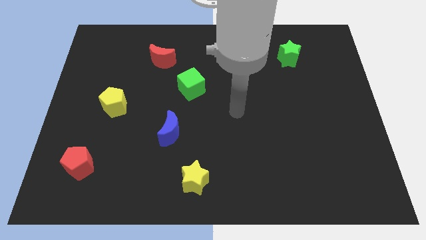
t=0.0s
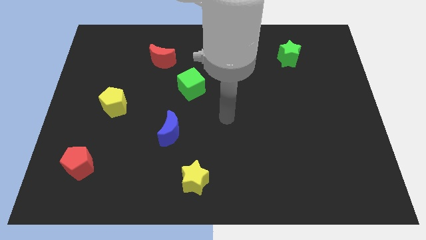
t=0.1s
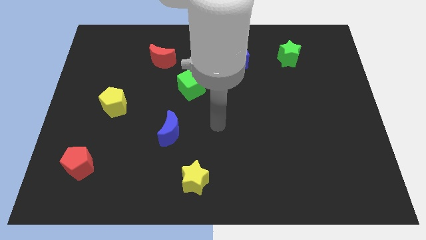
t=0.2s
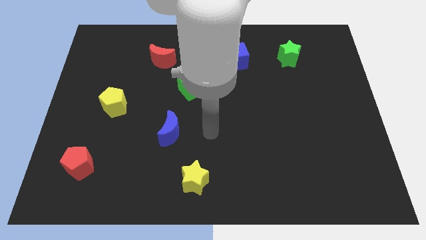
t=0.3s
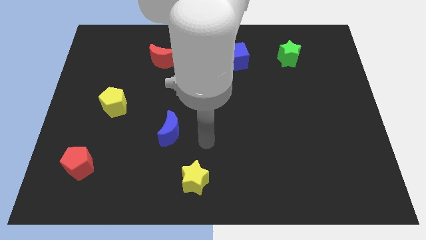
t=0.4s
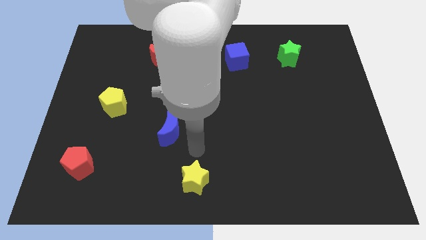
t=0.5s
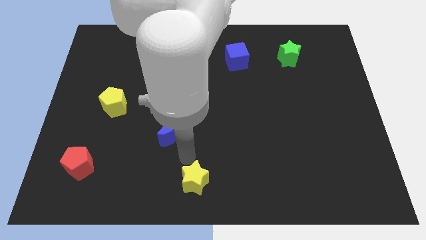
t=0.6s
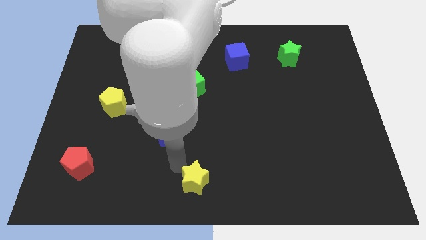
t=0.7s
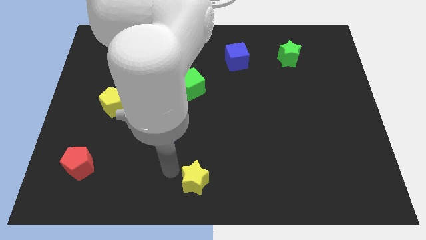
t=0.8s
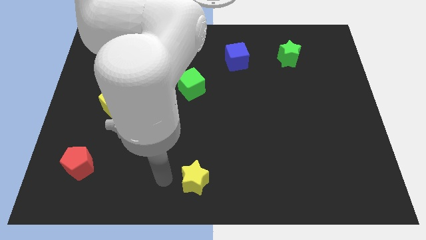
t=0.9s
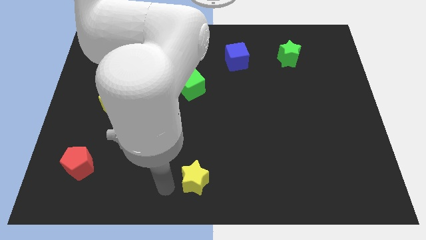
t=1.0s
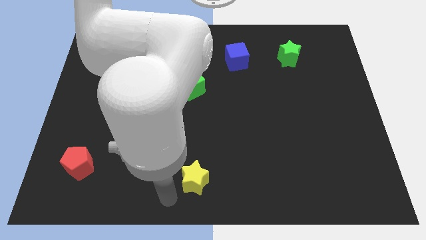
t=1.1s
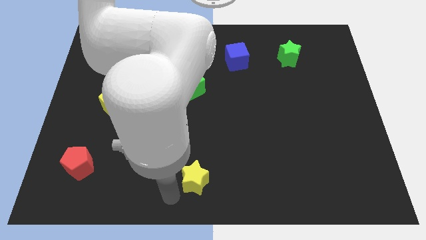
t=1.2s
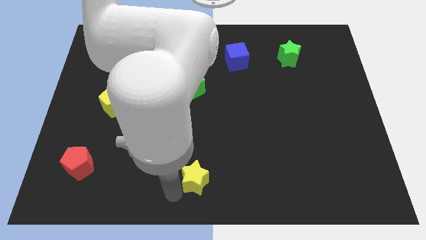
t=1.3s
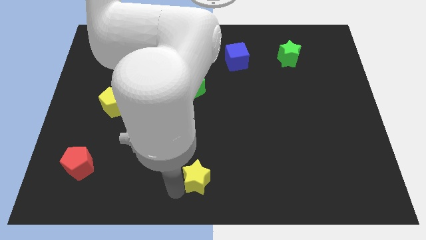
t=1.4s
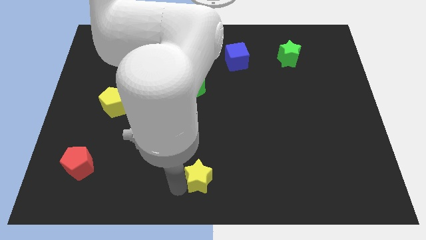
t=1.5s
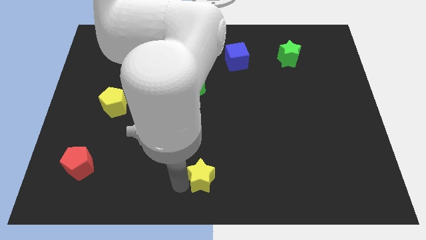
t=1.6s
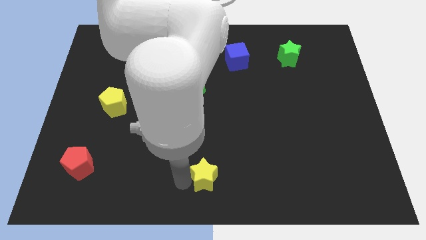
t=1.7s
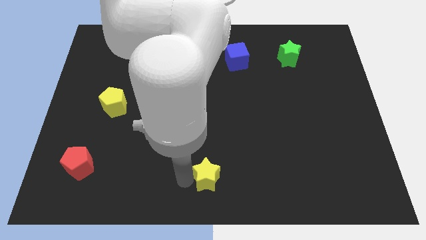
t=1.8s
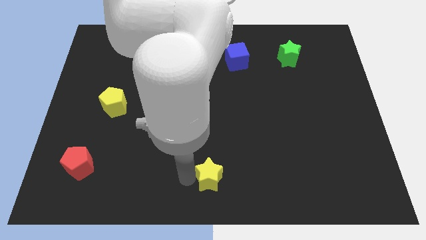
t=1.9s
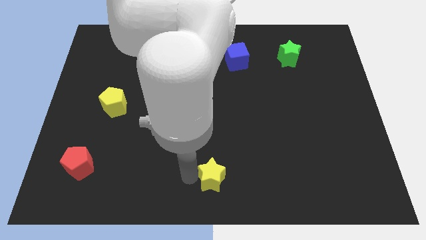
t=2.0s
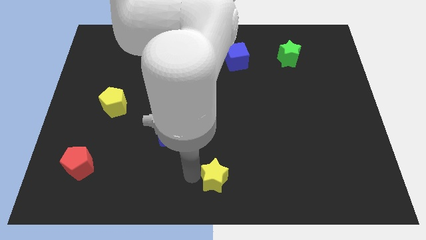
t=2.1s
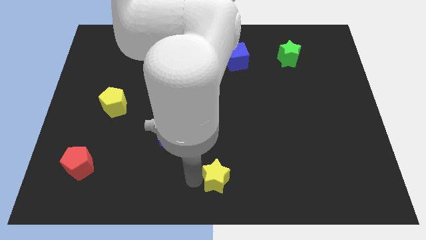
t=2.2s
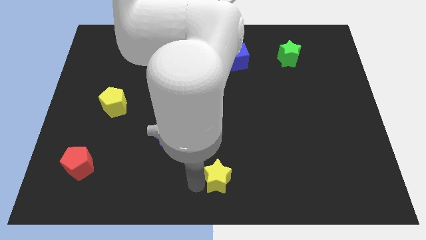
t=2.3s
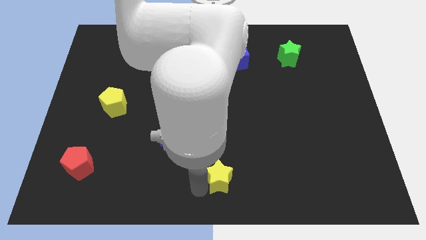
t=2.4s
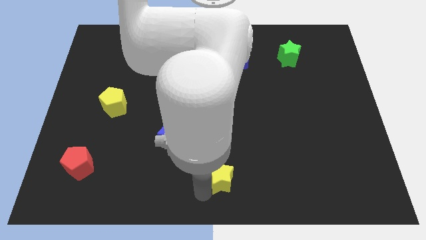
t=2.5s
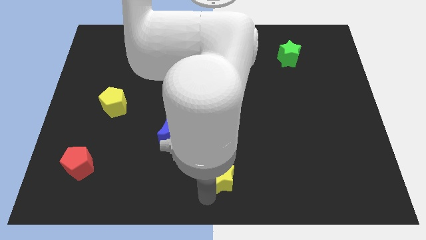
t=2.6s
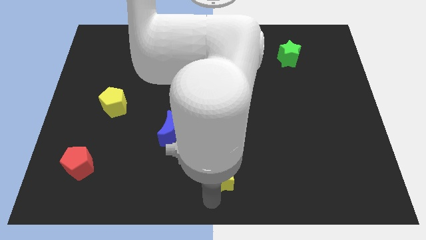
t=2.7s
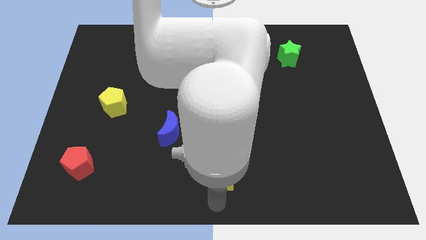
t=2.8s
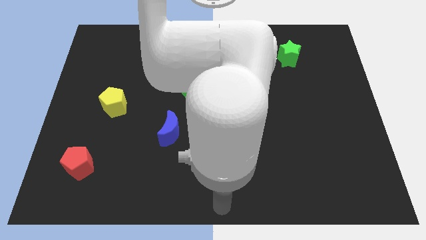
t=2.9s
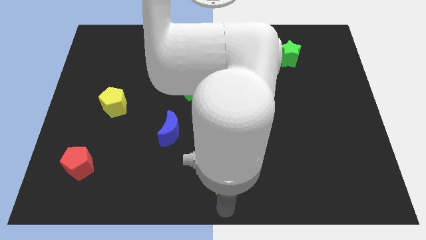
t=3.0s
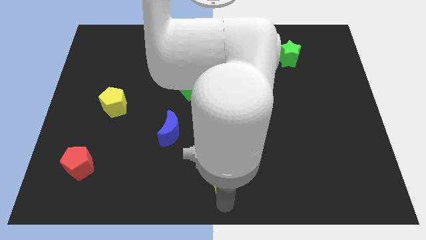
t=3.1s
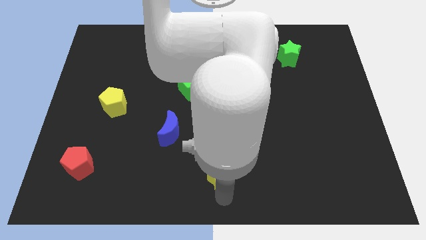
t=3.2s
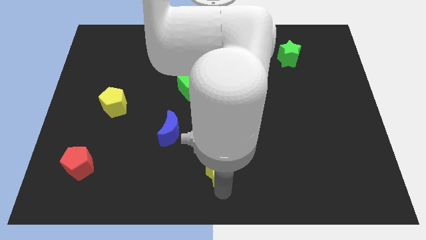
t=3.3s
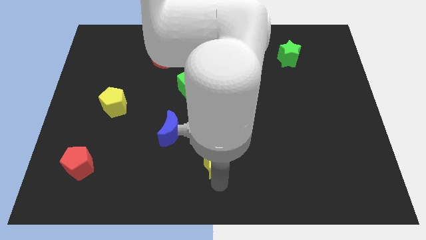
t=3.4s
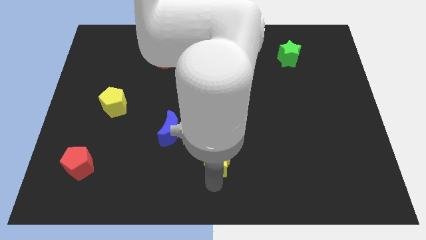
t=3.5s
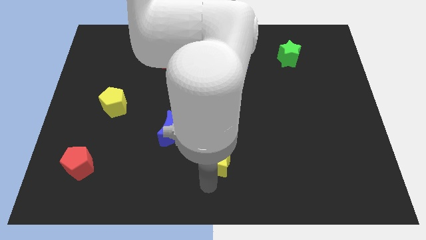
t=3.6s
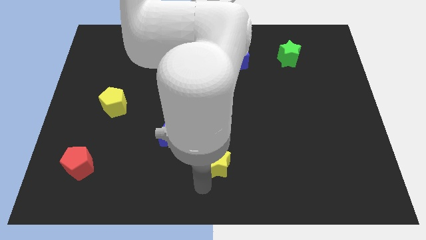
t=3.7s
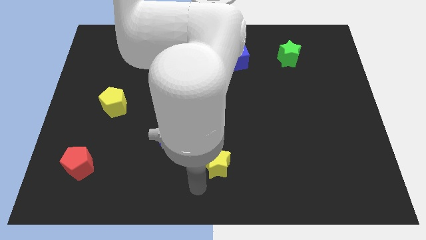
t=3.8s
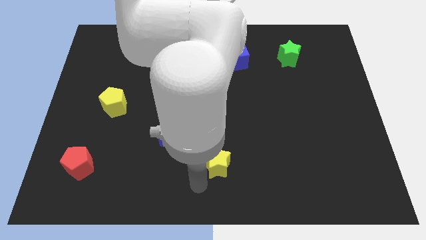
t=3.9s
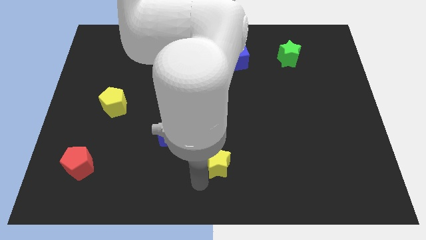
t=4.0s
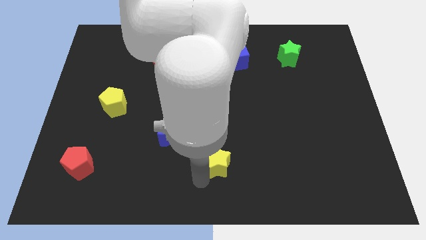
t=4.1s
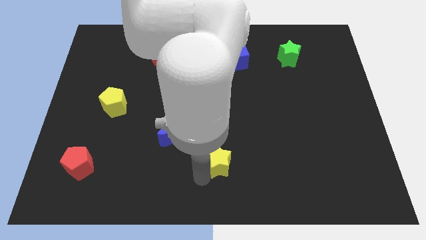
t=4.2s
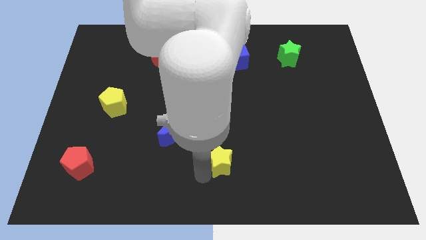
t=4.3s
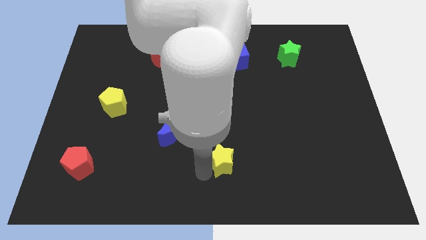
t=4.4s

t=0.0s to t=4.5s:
move the yellow star somewhat diagonally upwards and to the right

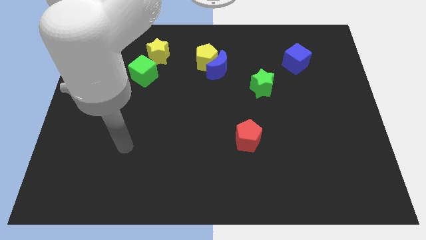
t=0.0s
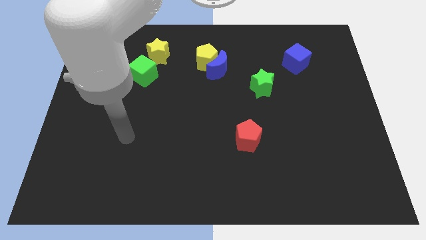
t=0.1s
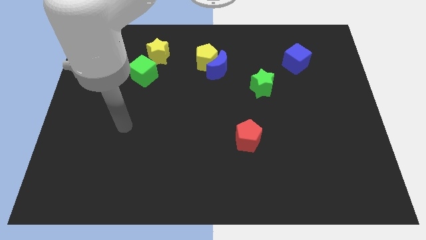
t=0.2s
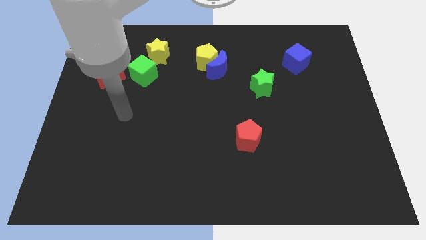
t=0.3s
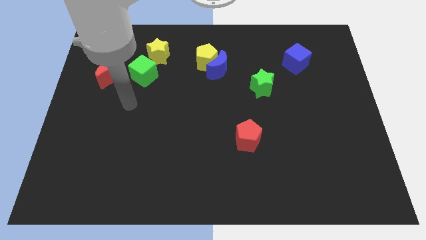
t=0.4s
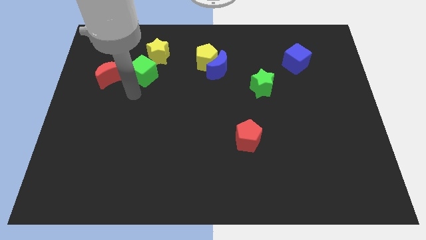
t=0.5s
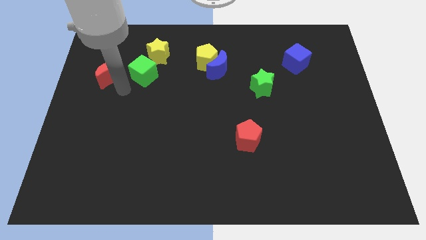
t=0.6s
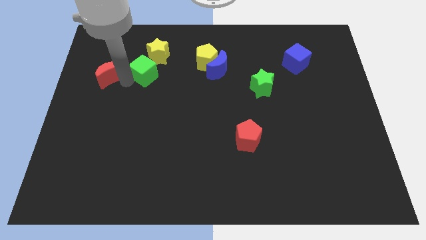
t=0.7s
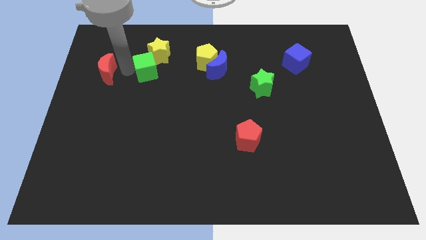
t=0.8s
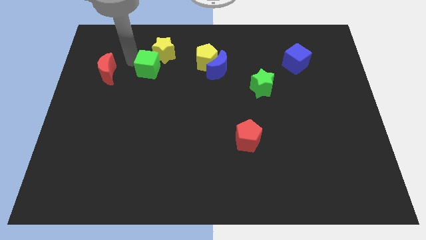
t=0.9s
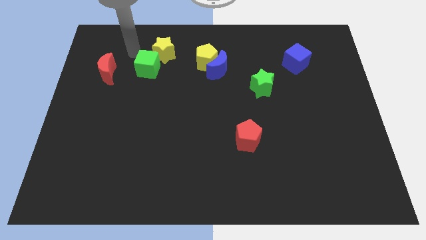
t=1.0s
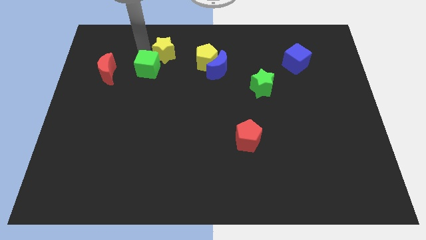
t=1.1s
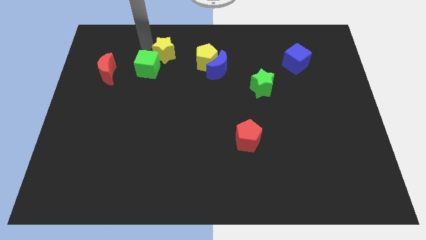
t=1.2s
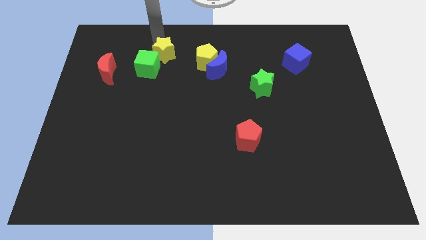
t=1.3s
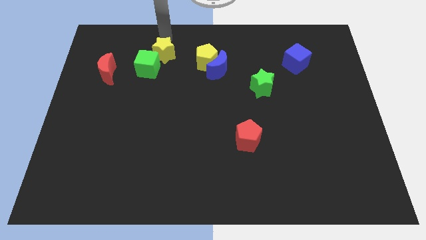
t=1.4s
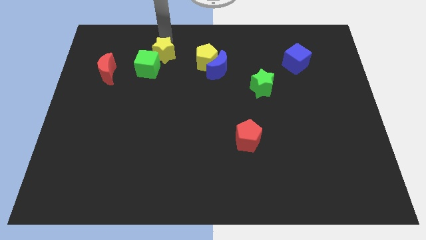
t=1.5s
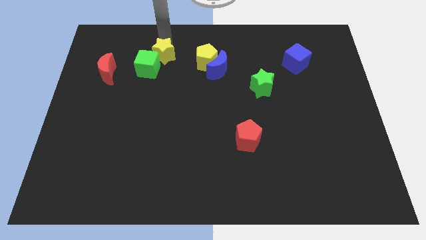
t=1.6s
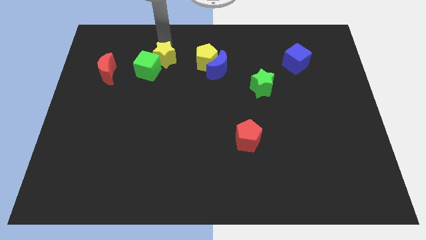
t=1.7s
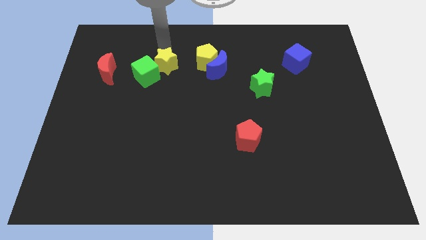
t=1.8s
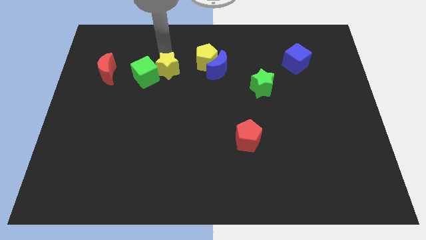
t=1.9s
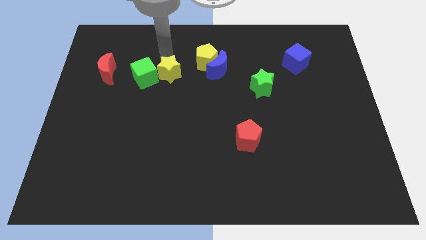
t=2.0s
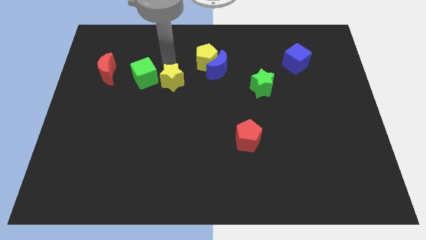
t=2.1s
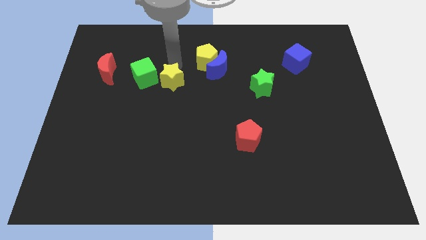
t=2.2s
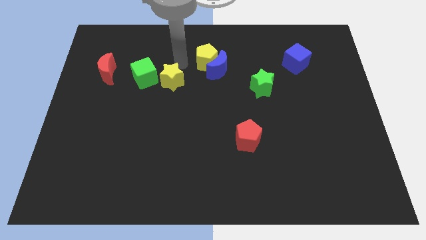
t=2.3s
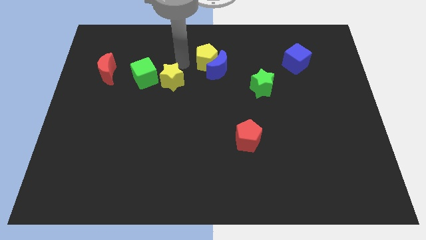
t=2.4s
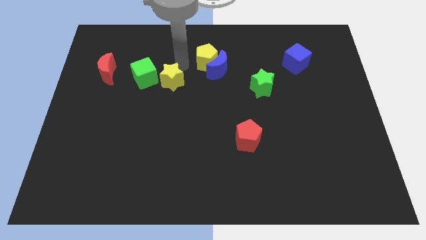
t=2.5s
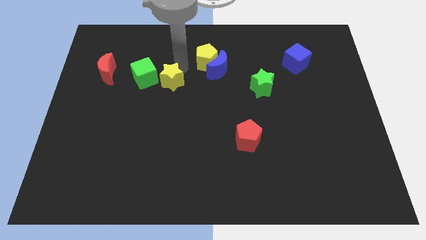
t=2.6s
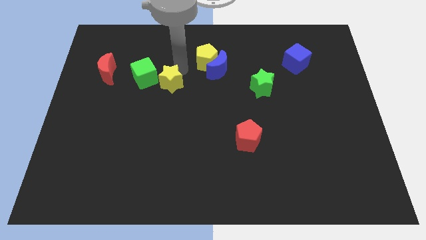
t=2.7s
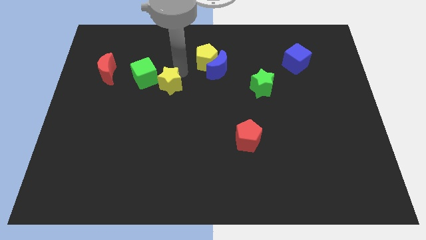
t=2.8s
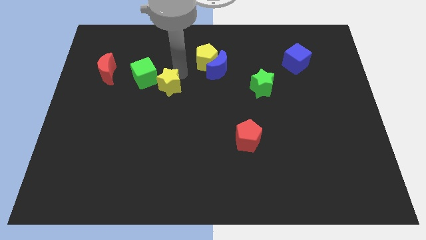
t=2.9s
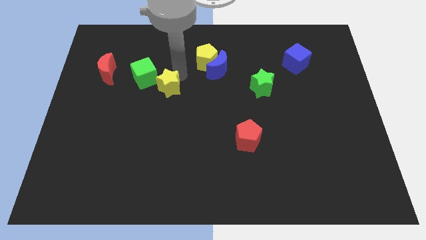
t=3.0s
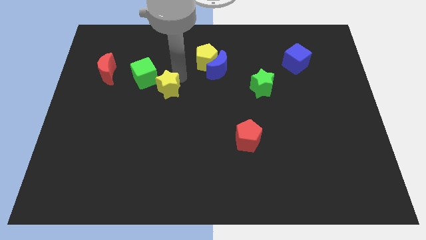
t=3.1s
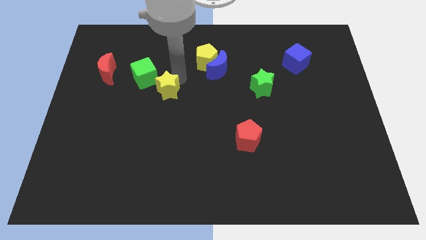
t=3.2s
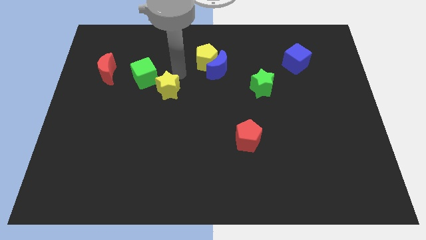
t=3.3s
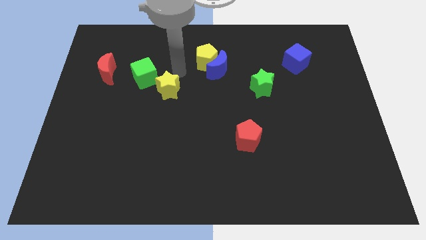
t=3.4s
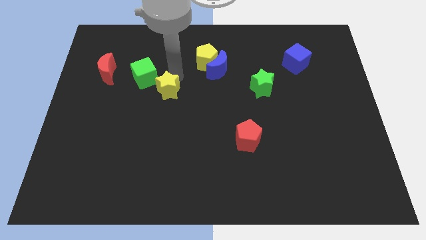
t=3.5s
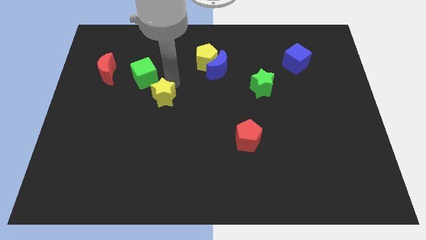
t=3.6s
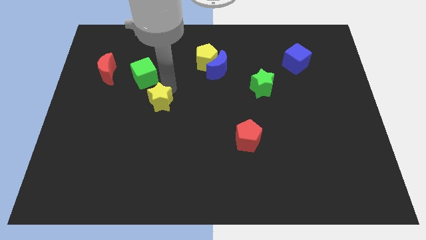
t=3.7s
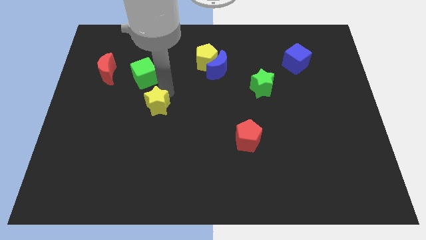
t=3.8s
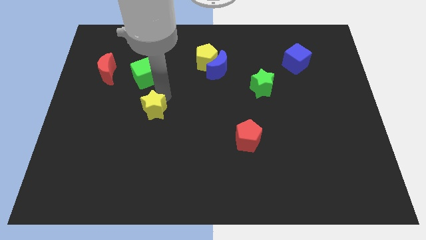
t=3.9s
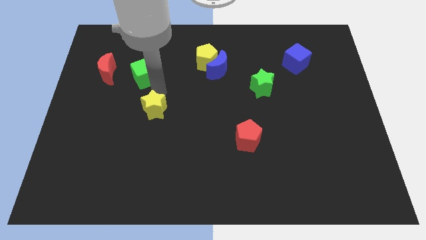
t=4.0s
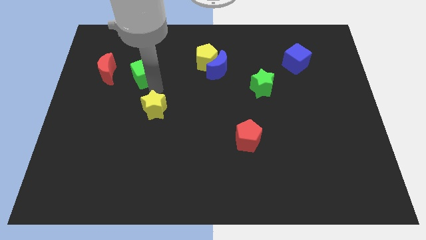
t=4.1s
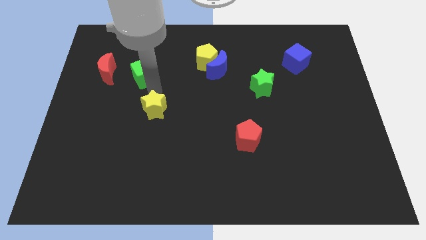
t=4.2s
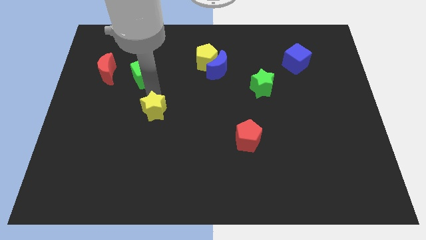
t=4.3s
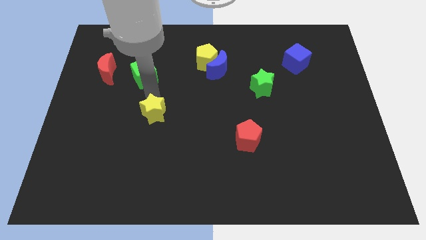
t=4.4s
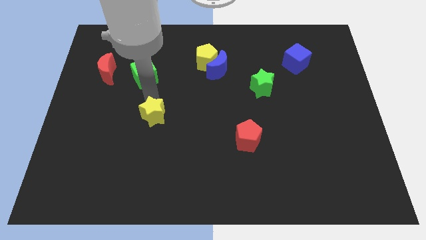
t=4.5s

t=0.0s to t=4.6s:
push the yellow star down
